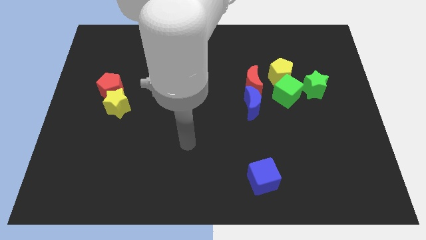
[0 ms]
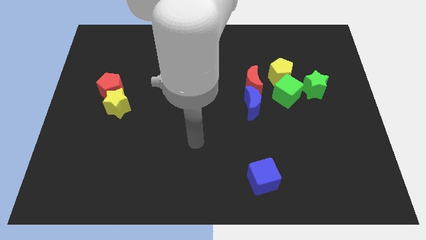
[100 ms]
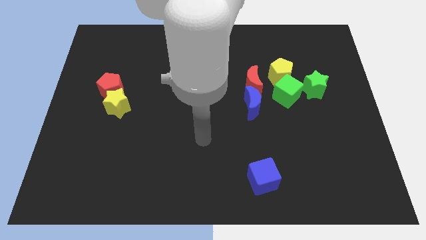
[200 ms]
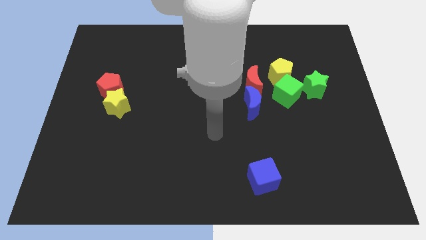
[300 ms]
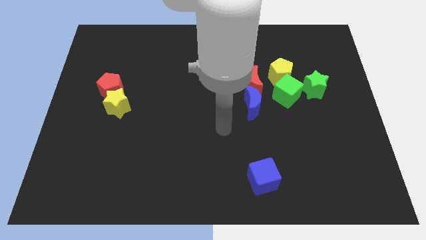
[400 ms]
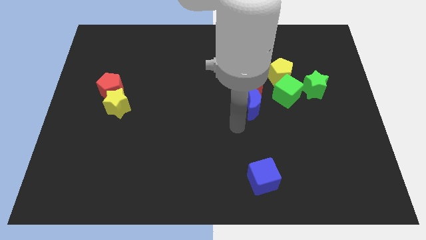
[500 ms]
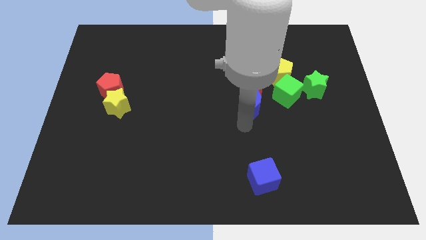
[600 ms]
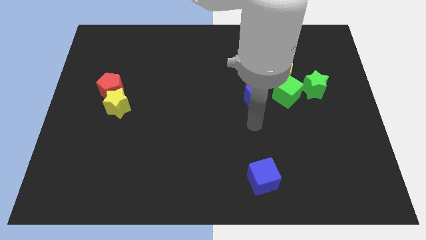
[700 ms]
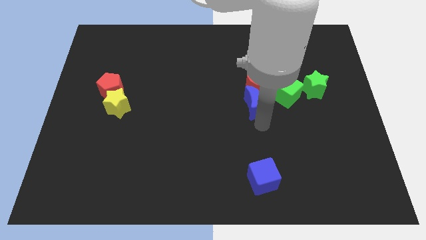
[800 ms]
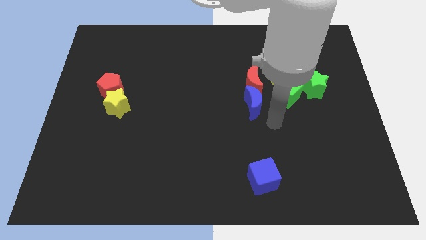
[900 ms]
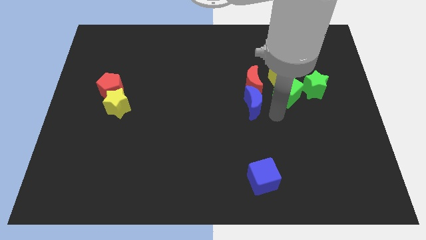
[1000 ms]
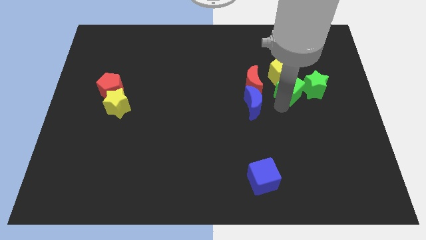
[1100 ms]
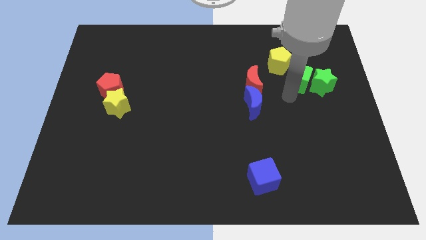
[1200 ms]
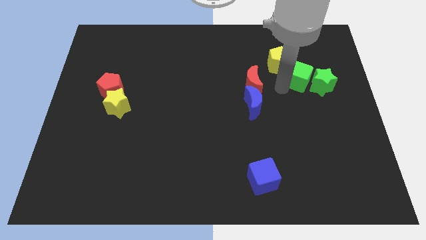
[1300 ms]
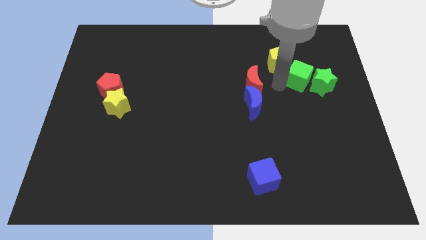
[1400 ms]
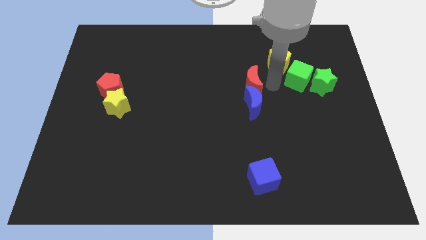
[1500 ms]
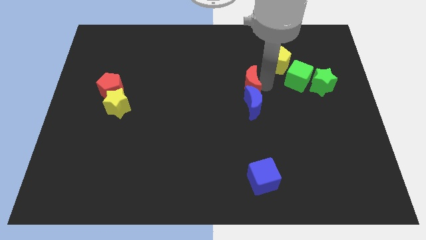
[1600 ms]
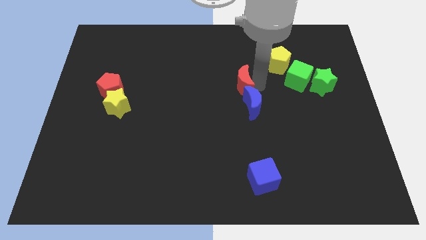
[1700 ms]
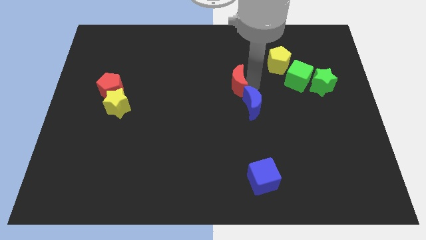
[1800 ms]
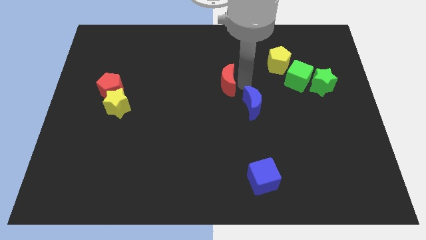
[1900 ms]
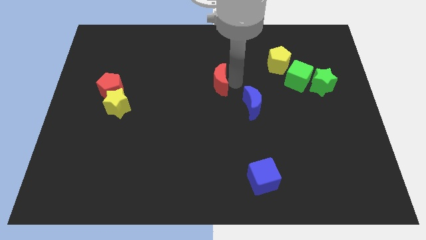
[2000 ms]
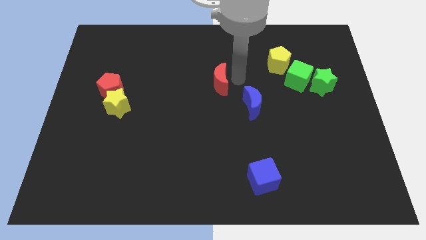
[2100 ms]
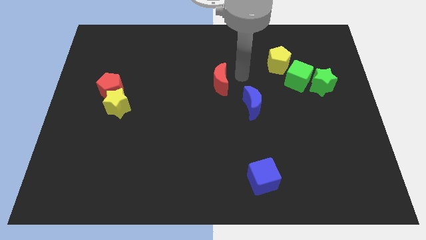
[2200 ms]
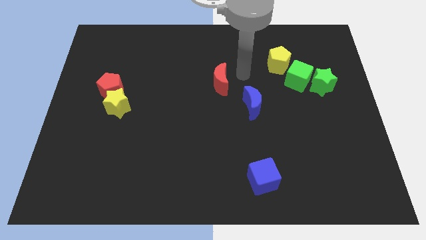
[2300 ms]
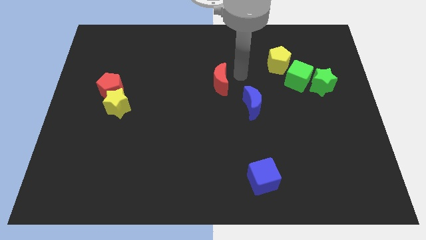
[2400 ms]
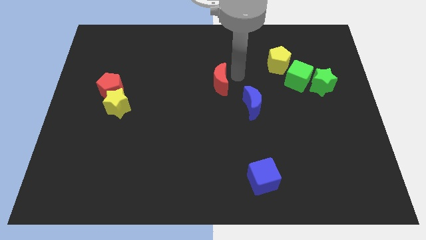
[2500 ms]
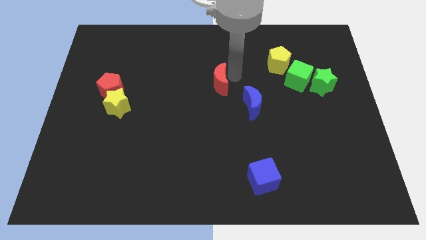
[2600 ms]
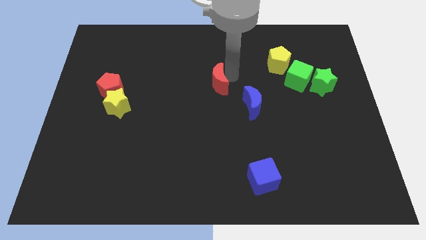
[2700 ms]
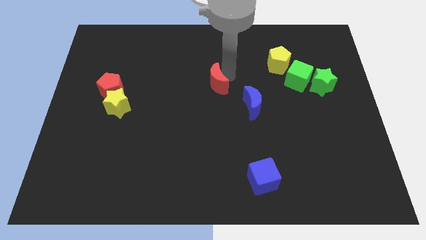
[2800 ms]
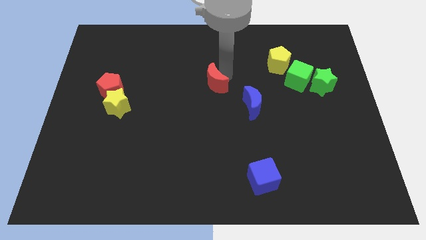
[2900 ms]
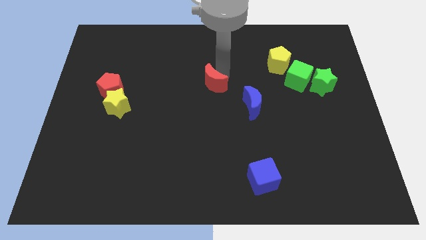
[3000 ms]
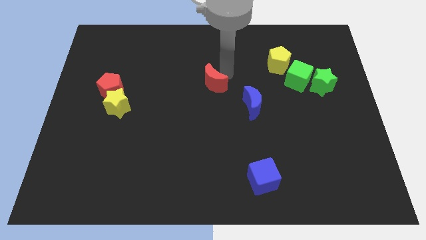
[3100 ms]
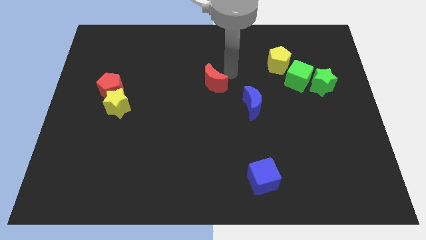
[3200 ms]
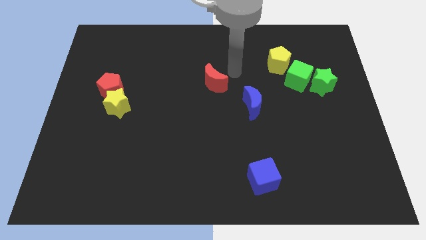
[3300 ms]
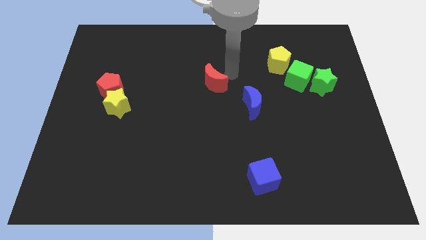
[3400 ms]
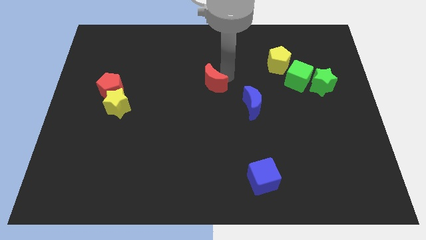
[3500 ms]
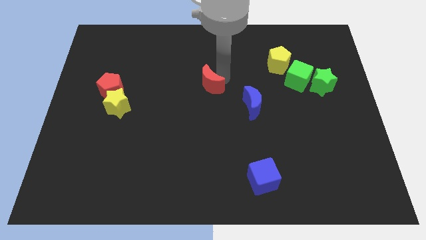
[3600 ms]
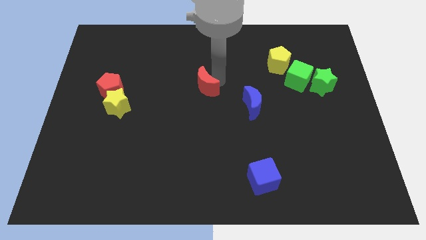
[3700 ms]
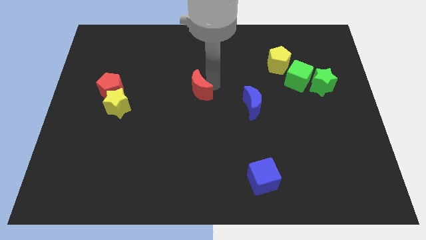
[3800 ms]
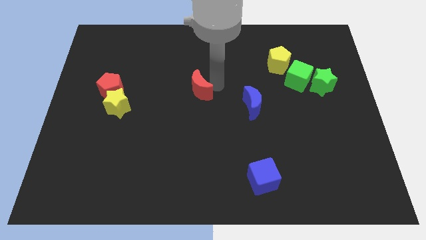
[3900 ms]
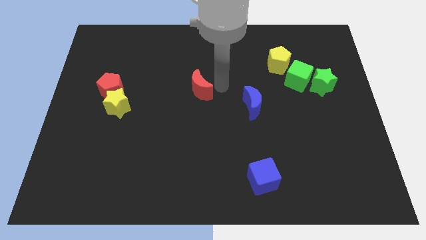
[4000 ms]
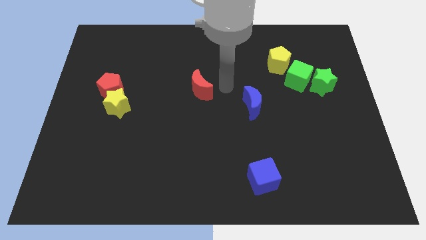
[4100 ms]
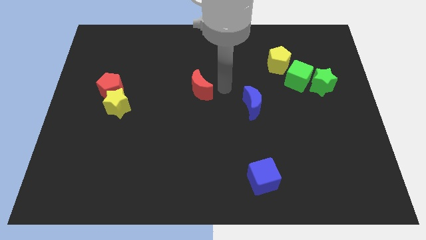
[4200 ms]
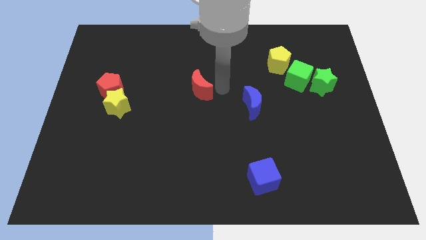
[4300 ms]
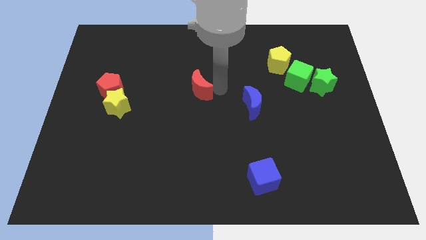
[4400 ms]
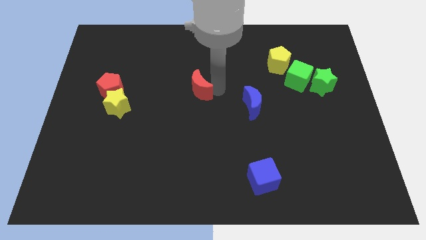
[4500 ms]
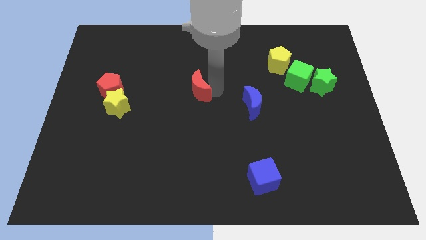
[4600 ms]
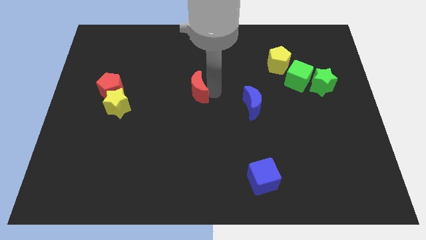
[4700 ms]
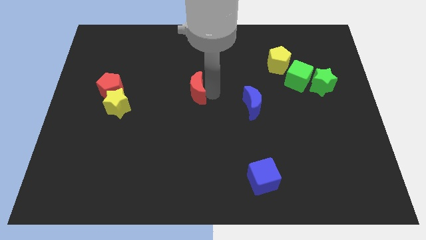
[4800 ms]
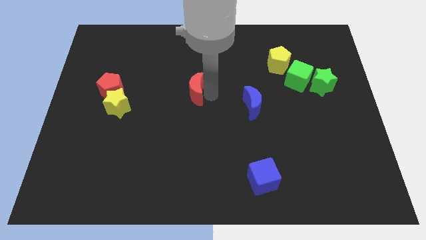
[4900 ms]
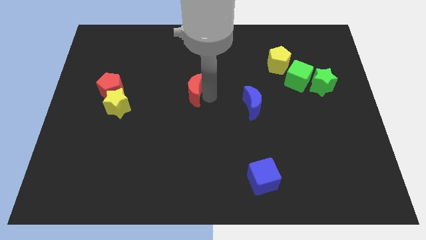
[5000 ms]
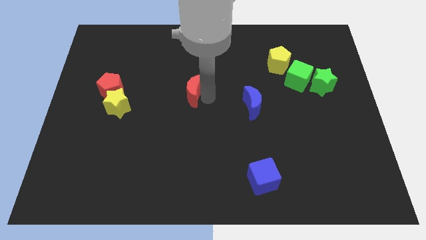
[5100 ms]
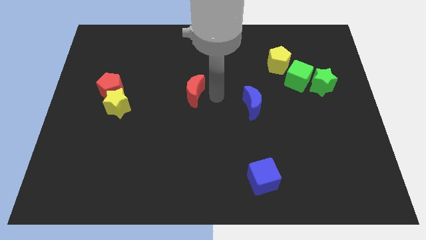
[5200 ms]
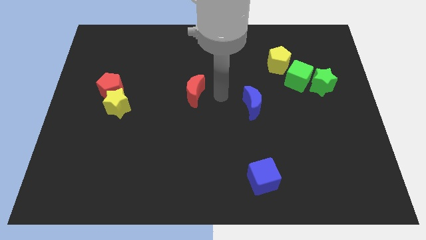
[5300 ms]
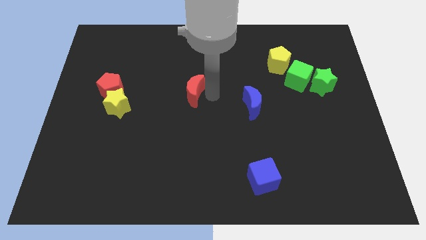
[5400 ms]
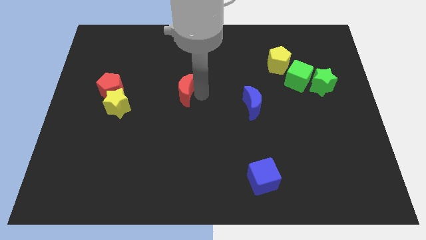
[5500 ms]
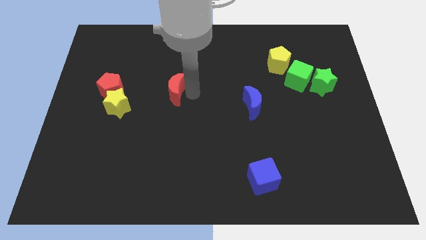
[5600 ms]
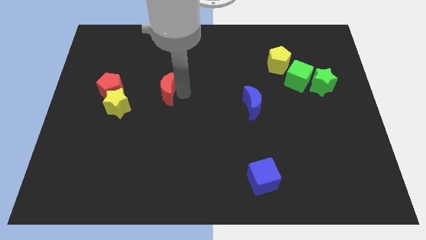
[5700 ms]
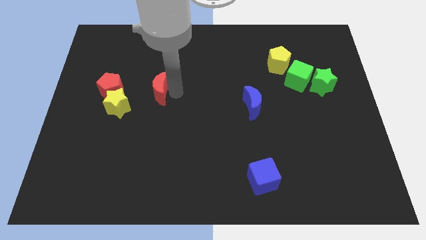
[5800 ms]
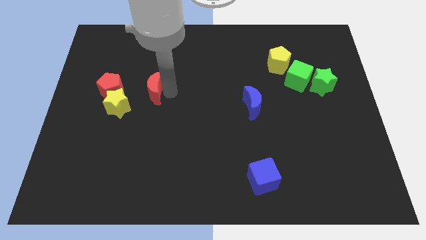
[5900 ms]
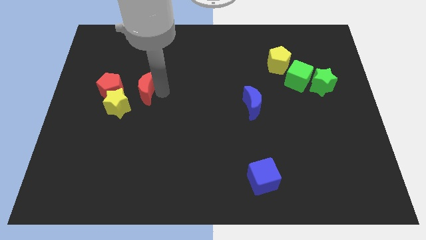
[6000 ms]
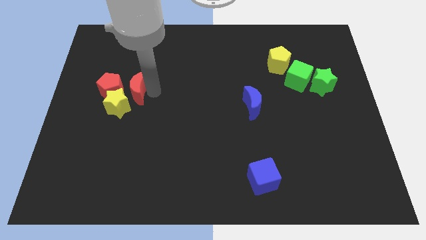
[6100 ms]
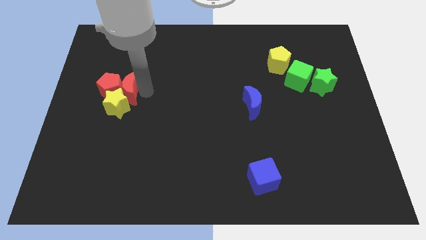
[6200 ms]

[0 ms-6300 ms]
put the red moon next to the red pentagon
